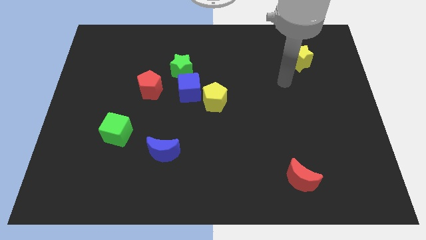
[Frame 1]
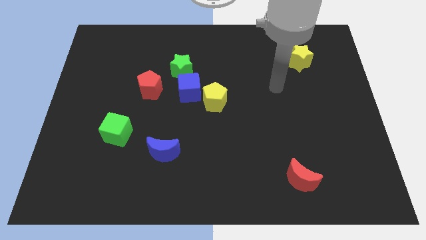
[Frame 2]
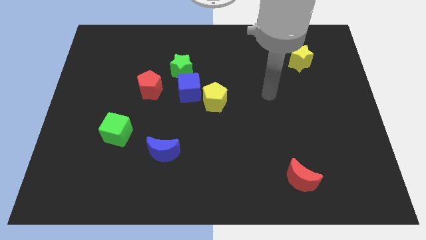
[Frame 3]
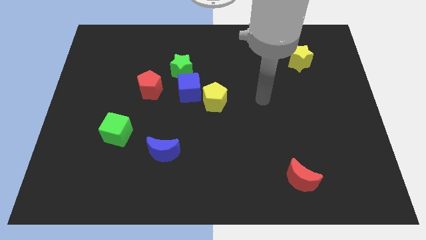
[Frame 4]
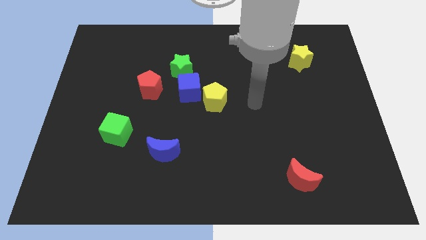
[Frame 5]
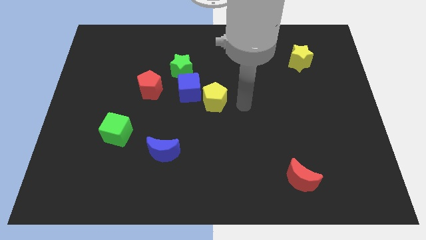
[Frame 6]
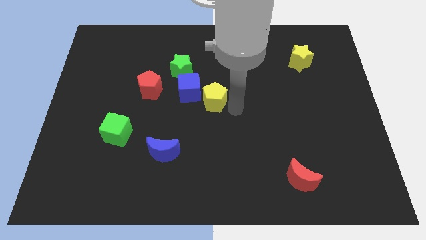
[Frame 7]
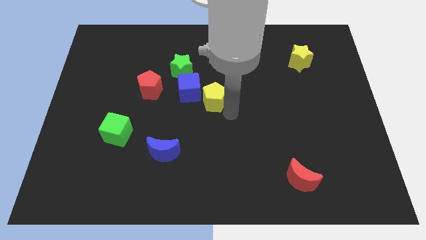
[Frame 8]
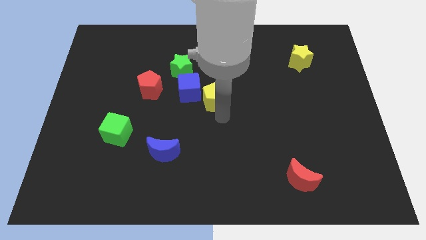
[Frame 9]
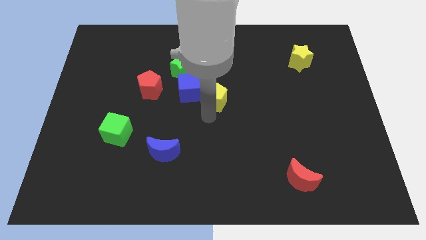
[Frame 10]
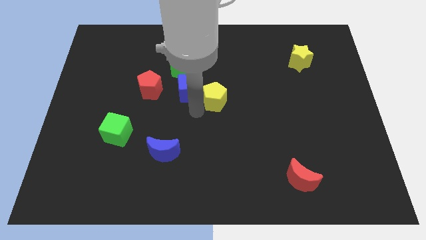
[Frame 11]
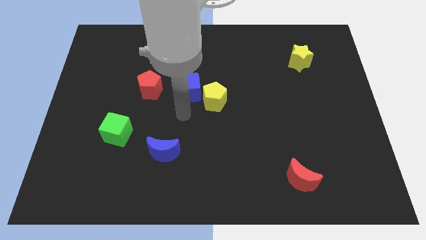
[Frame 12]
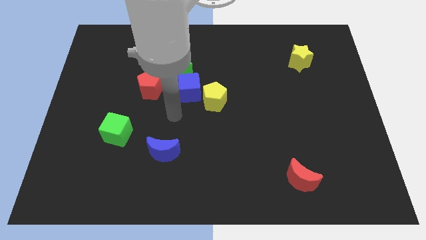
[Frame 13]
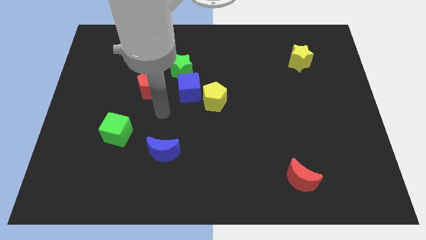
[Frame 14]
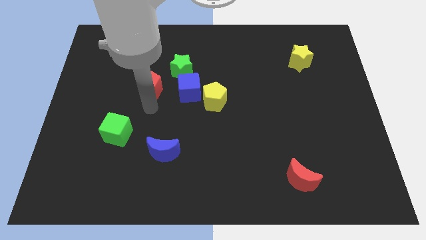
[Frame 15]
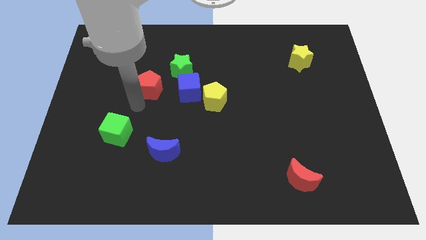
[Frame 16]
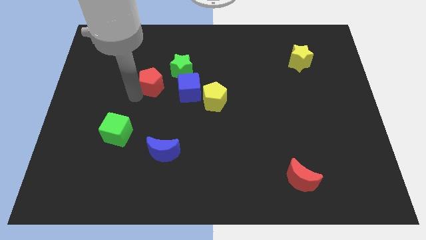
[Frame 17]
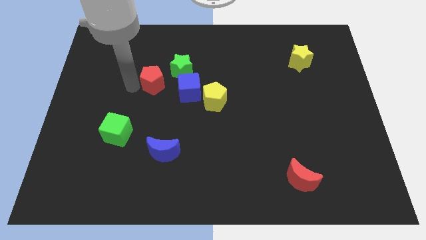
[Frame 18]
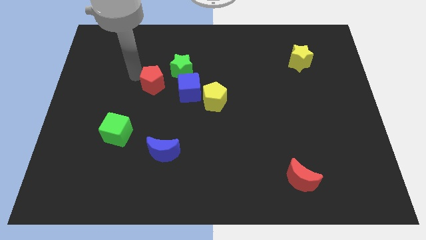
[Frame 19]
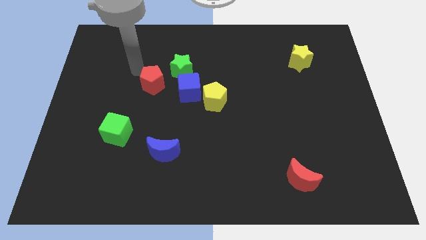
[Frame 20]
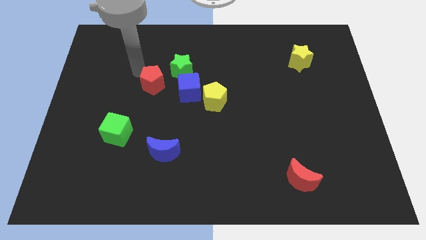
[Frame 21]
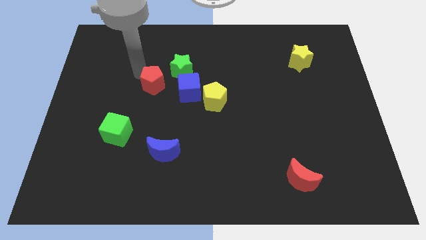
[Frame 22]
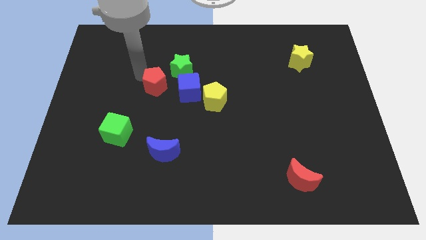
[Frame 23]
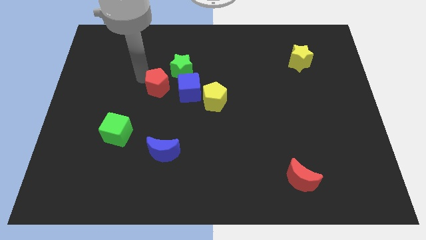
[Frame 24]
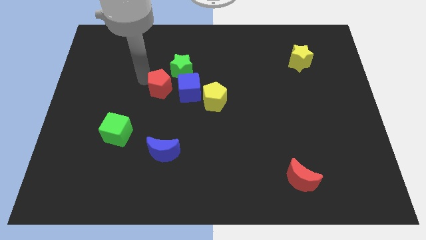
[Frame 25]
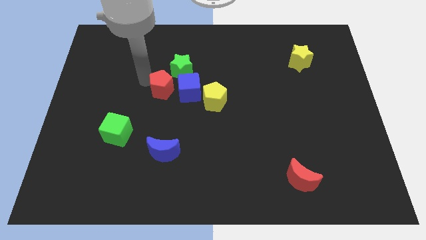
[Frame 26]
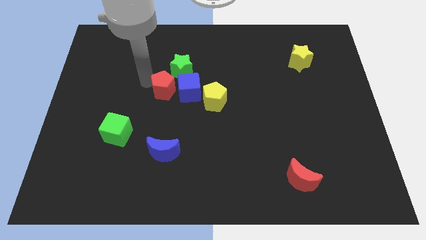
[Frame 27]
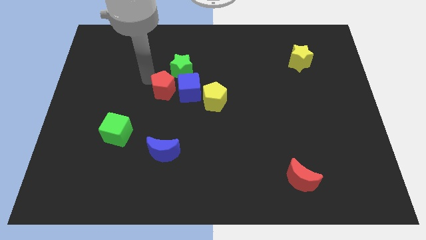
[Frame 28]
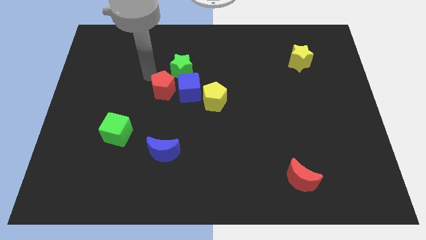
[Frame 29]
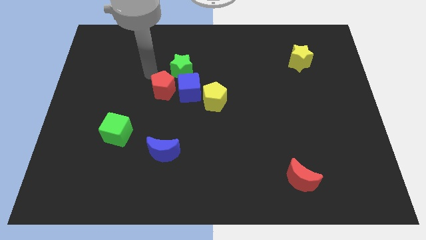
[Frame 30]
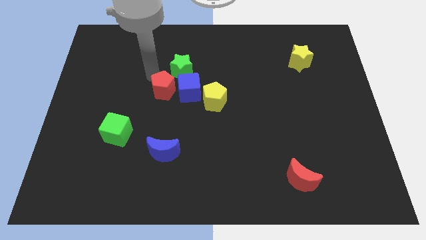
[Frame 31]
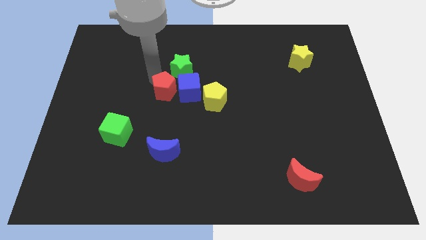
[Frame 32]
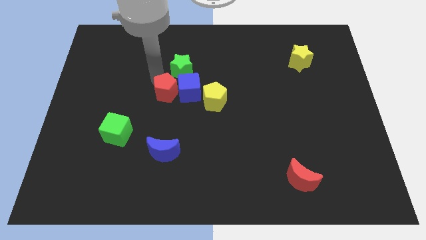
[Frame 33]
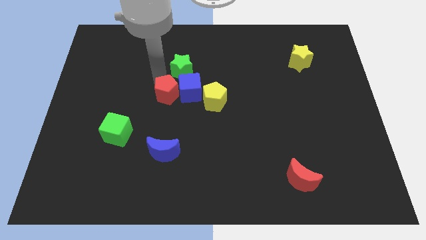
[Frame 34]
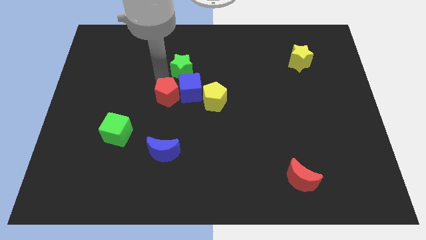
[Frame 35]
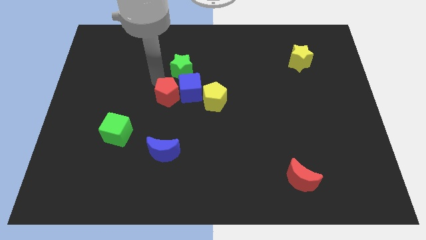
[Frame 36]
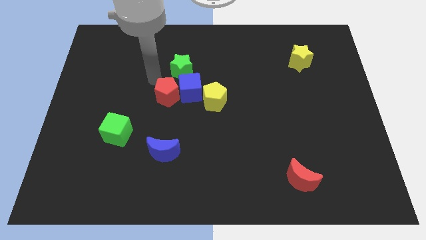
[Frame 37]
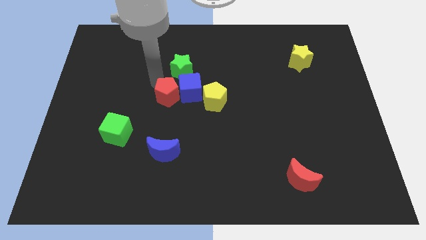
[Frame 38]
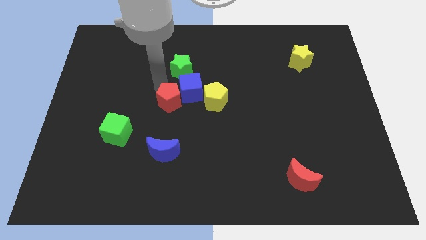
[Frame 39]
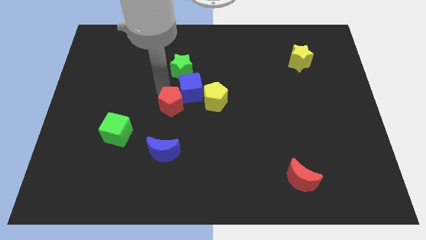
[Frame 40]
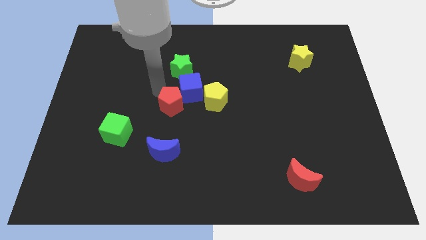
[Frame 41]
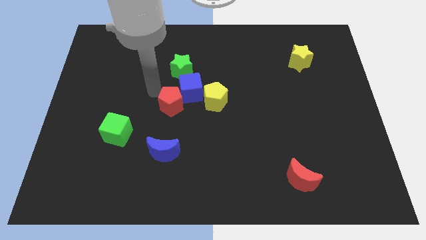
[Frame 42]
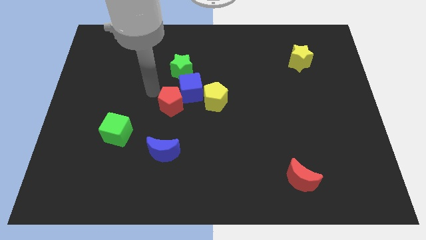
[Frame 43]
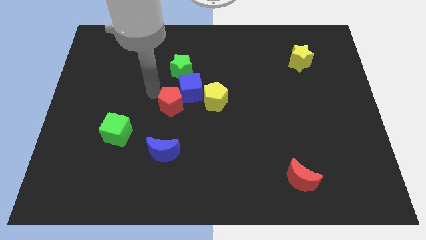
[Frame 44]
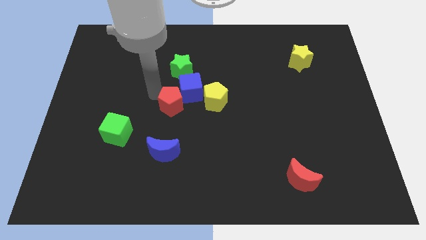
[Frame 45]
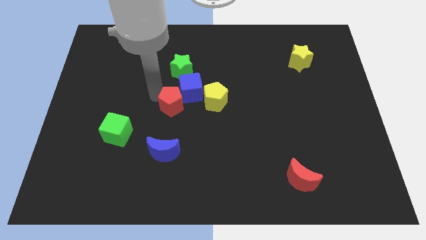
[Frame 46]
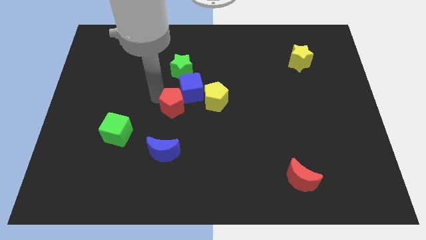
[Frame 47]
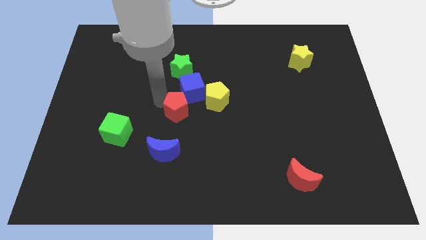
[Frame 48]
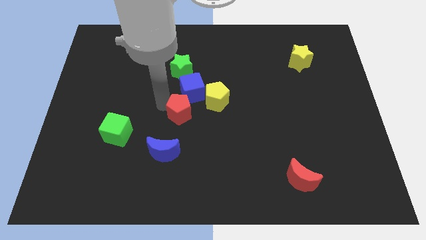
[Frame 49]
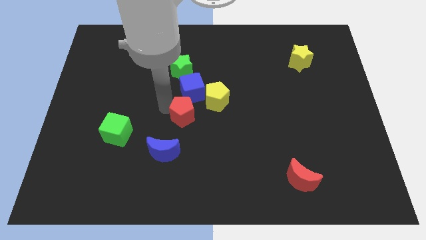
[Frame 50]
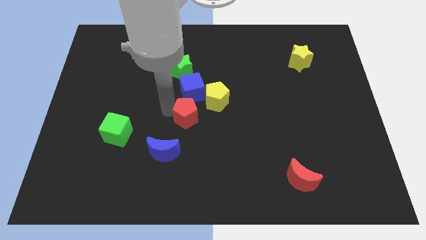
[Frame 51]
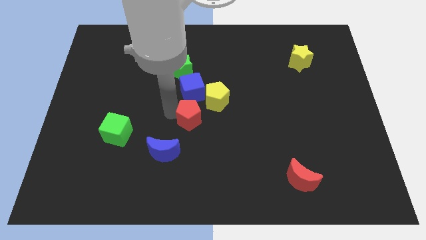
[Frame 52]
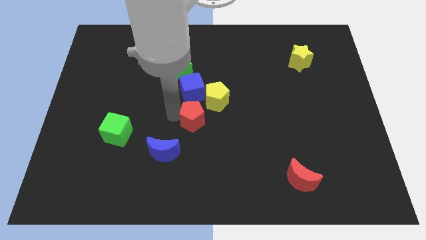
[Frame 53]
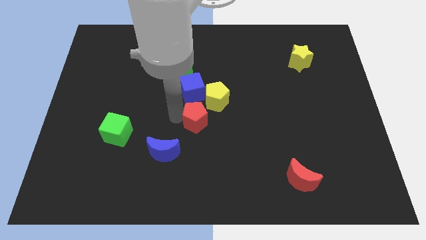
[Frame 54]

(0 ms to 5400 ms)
slide the red pentagon to the bottom side of the yellow pentagon

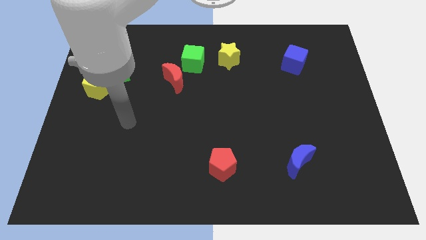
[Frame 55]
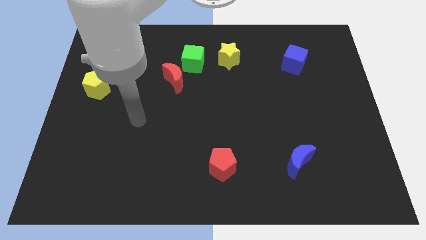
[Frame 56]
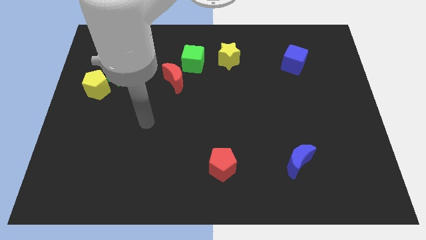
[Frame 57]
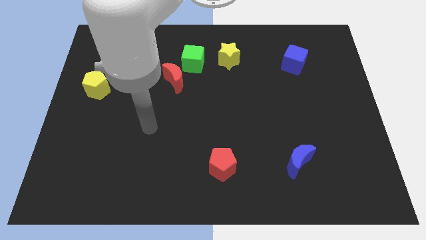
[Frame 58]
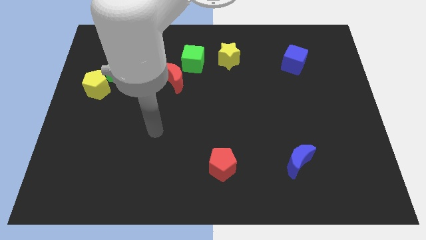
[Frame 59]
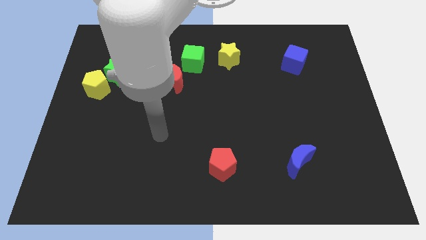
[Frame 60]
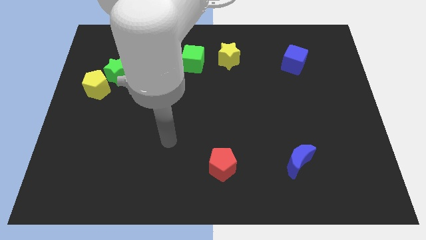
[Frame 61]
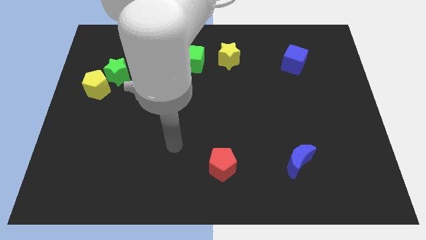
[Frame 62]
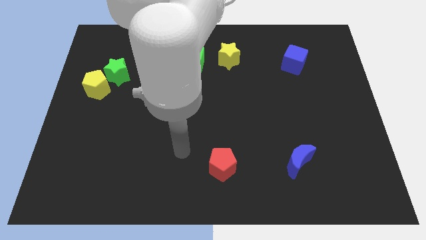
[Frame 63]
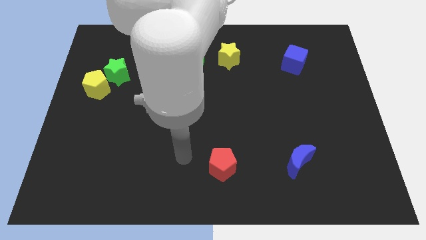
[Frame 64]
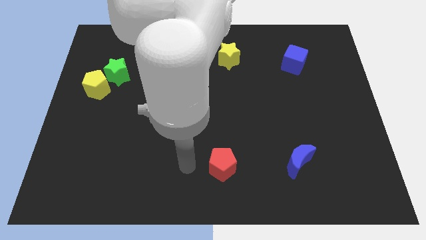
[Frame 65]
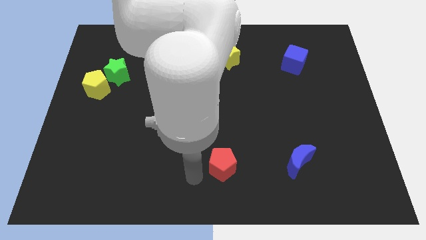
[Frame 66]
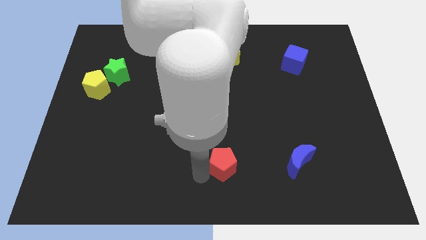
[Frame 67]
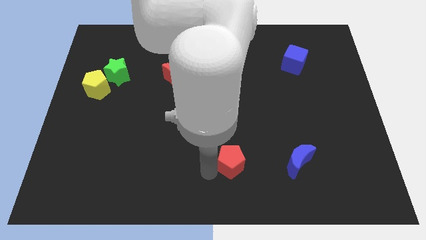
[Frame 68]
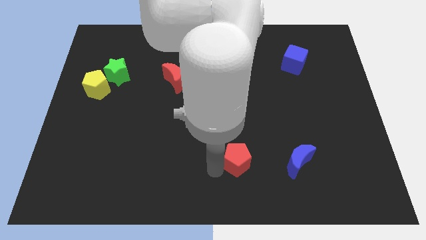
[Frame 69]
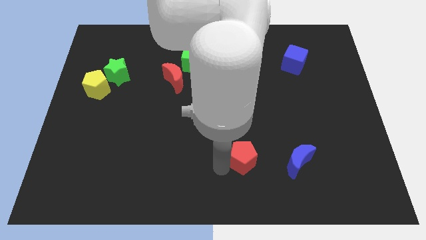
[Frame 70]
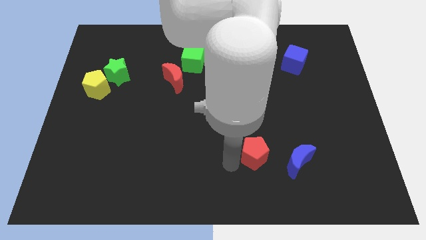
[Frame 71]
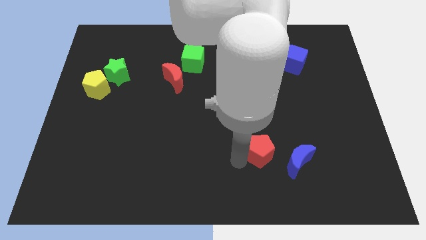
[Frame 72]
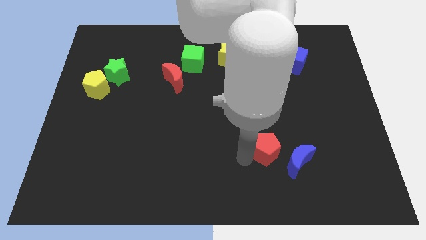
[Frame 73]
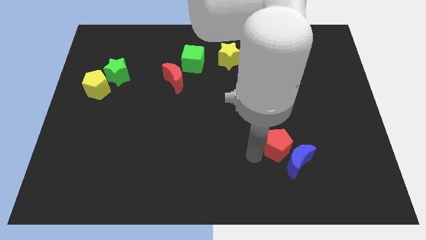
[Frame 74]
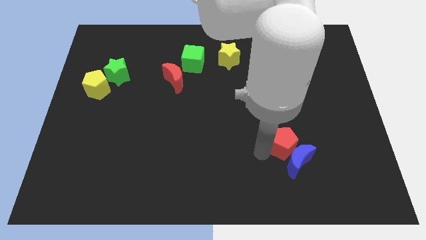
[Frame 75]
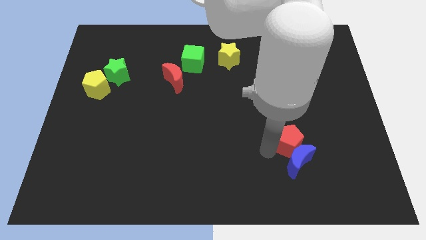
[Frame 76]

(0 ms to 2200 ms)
put the red pentagon to the top right side of the blue moon

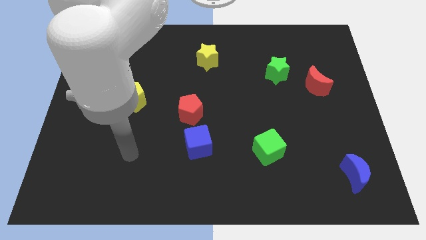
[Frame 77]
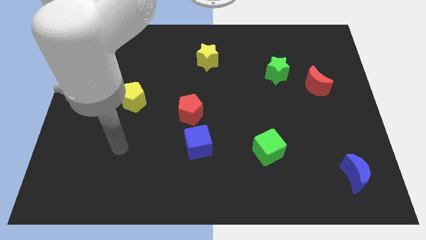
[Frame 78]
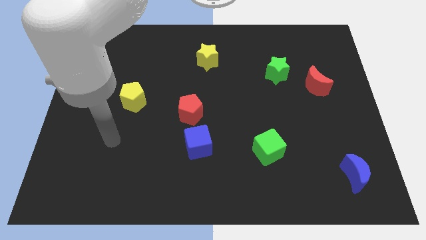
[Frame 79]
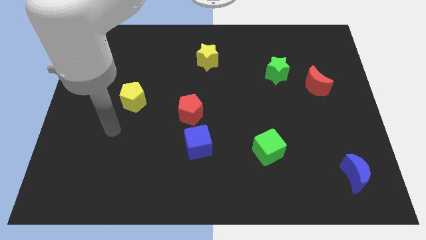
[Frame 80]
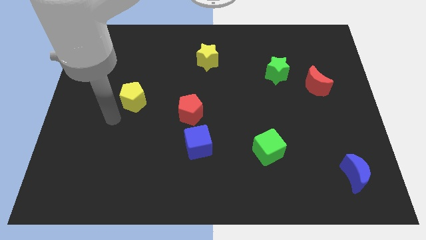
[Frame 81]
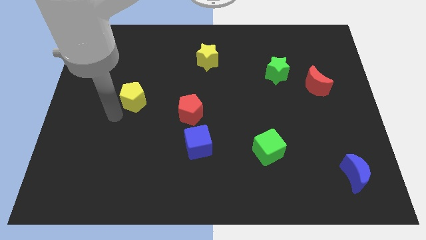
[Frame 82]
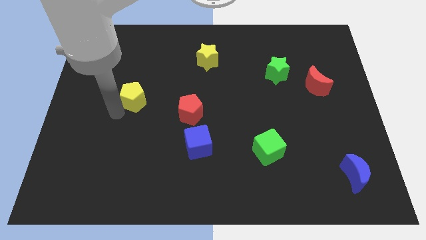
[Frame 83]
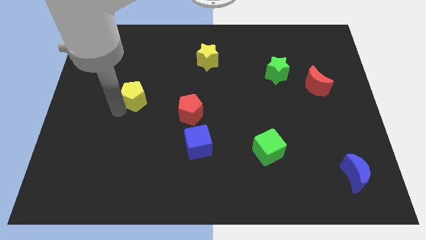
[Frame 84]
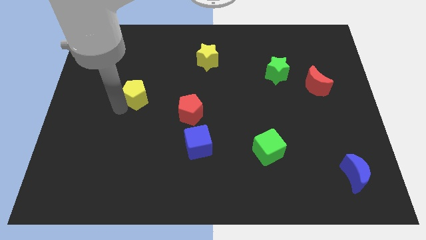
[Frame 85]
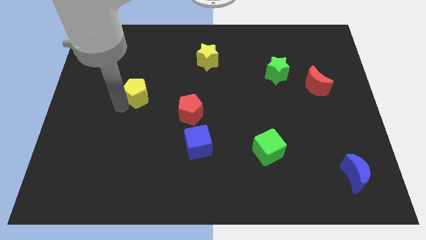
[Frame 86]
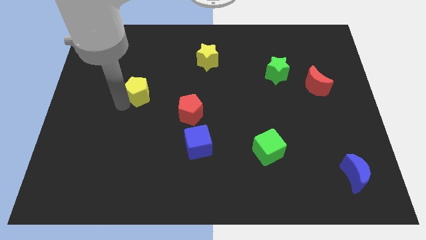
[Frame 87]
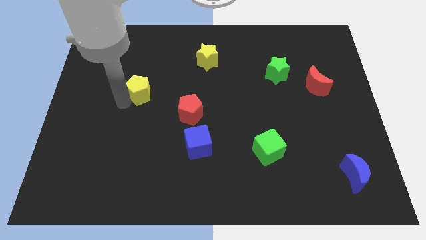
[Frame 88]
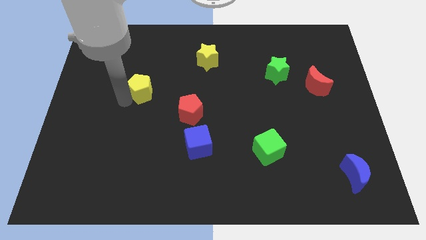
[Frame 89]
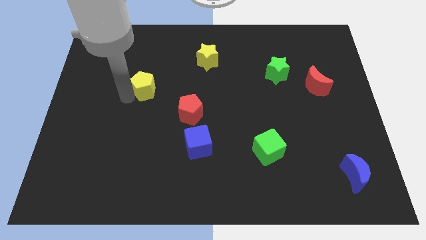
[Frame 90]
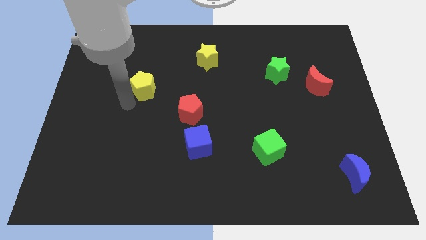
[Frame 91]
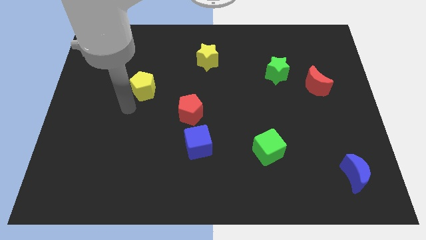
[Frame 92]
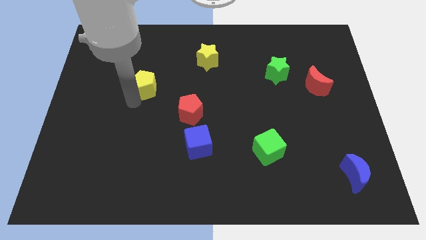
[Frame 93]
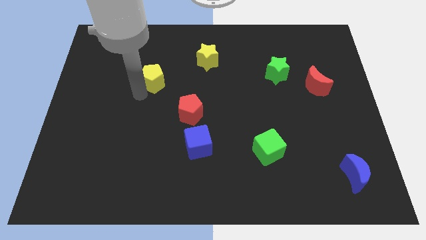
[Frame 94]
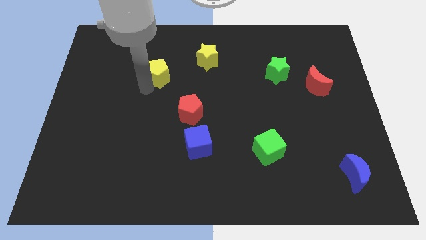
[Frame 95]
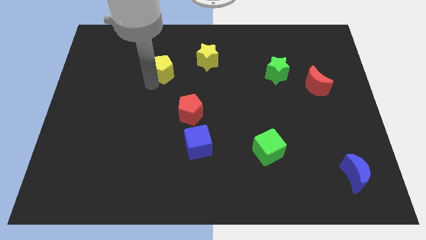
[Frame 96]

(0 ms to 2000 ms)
slide the yellow pentagon to the left of the yellow star
